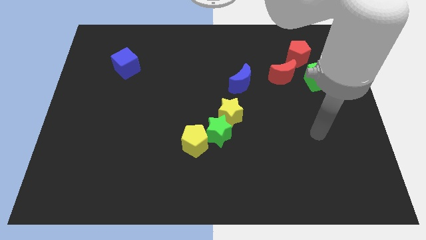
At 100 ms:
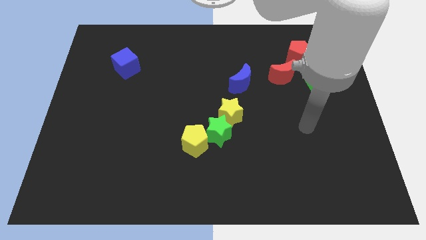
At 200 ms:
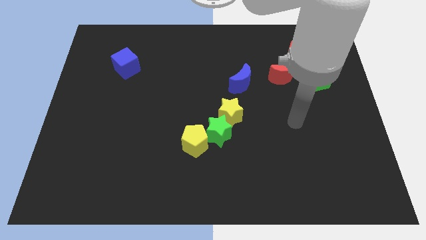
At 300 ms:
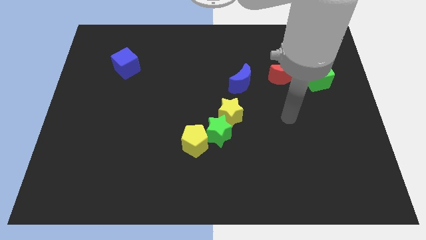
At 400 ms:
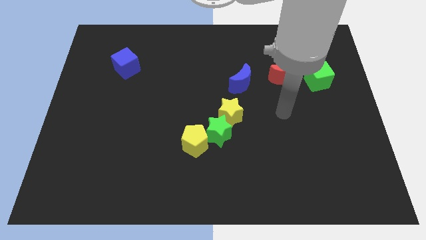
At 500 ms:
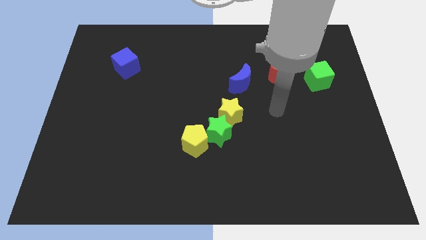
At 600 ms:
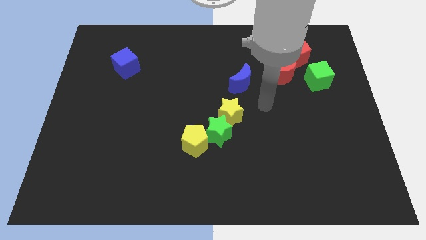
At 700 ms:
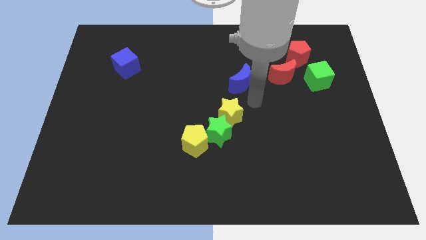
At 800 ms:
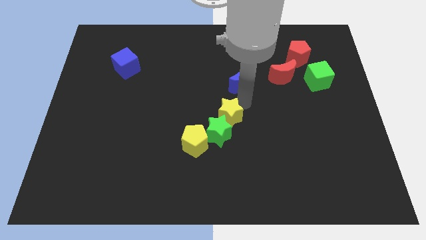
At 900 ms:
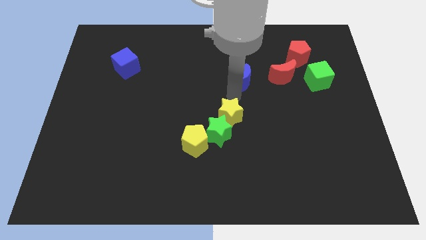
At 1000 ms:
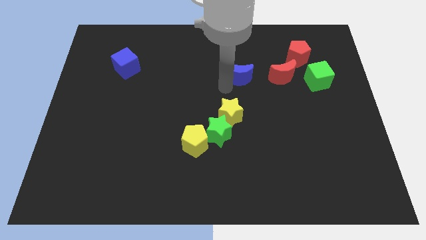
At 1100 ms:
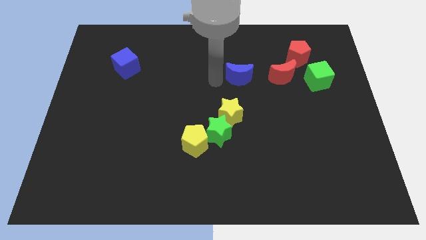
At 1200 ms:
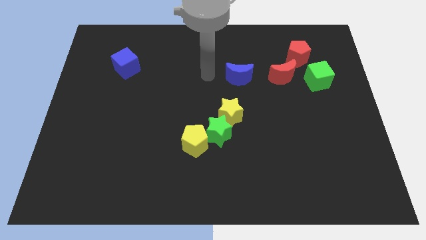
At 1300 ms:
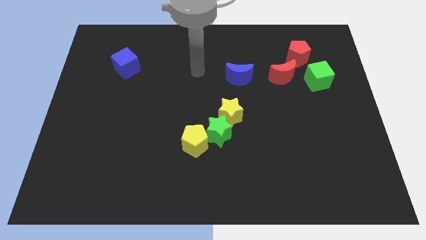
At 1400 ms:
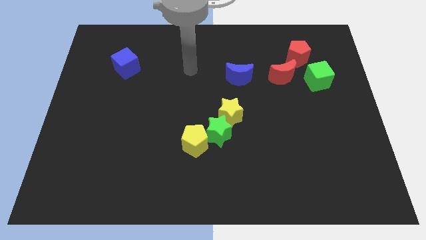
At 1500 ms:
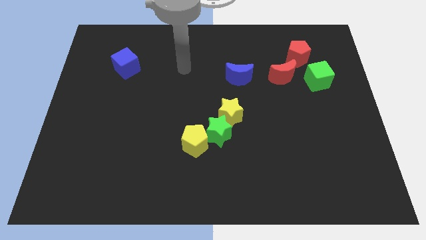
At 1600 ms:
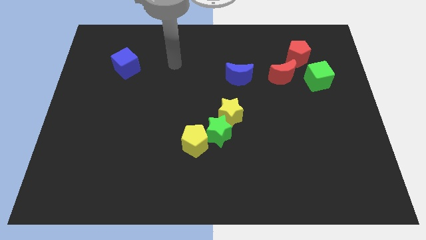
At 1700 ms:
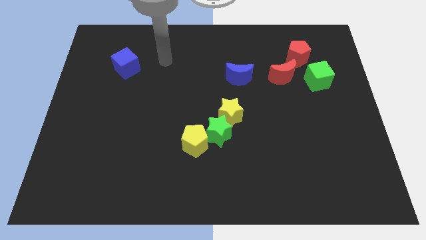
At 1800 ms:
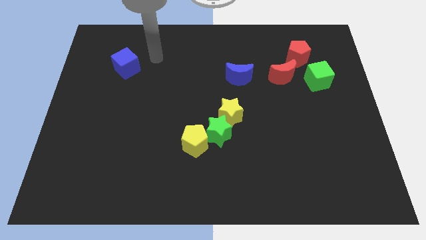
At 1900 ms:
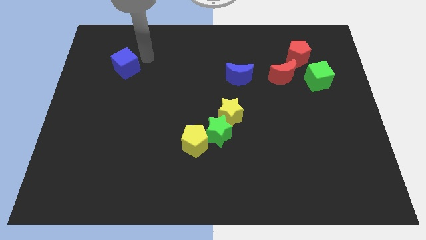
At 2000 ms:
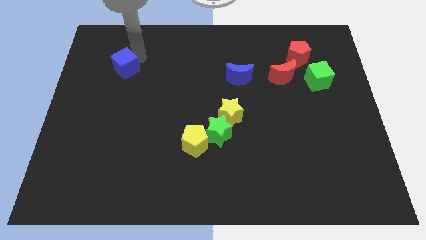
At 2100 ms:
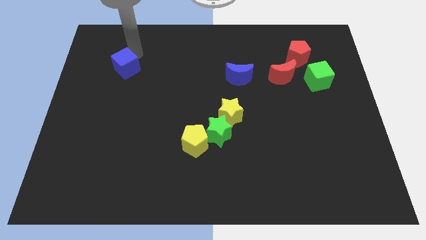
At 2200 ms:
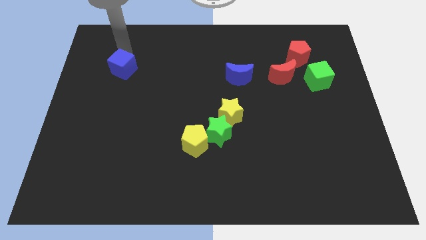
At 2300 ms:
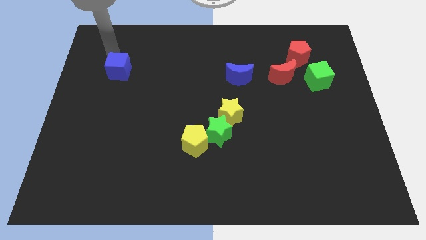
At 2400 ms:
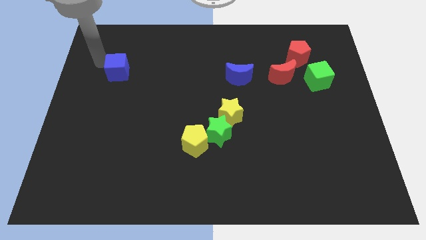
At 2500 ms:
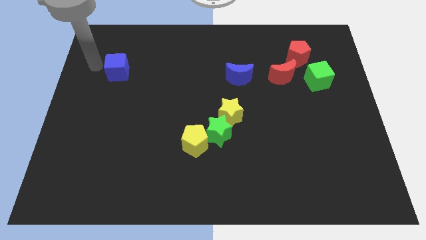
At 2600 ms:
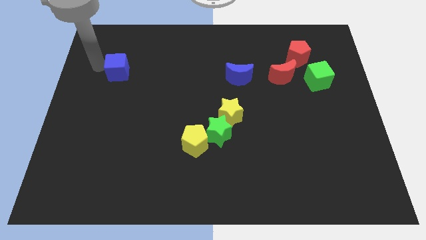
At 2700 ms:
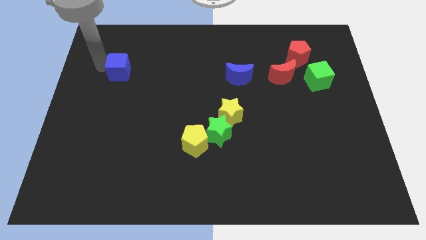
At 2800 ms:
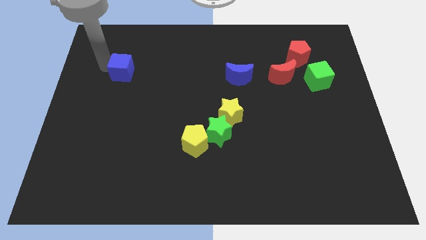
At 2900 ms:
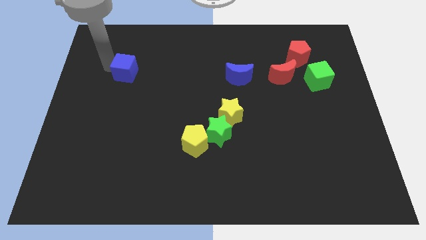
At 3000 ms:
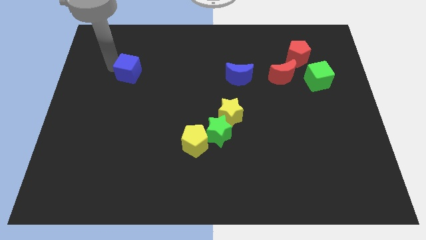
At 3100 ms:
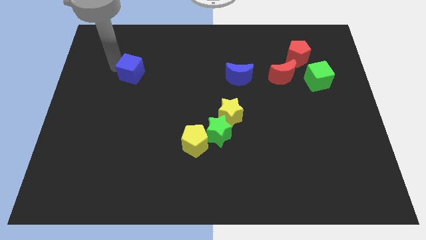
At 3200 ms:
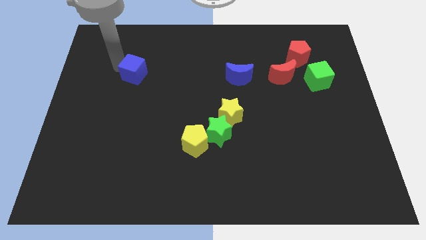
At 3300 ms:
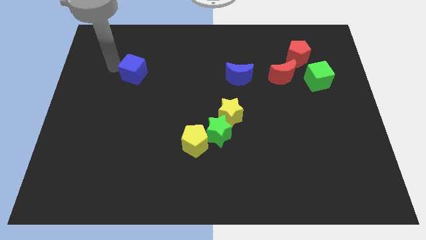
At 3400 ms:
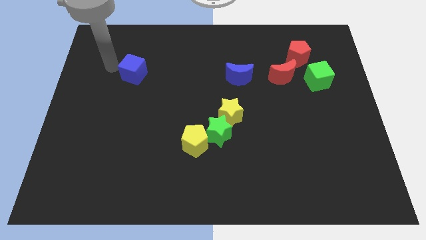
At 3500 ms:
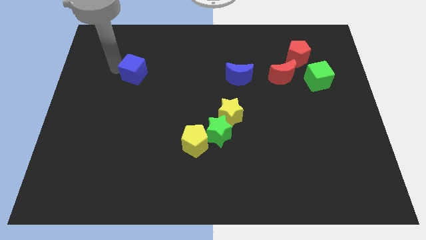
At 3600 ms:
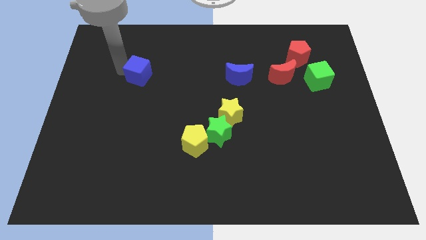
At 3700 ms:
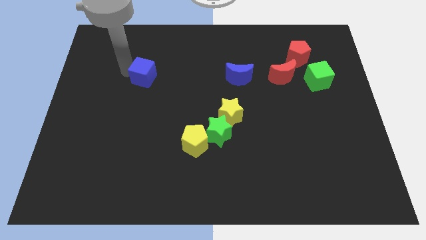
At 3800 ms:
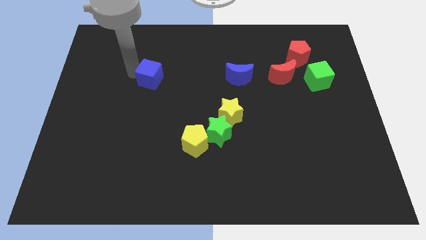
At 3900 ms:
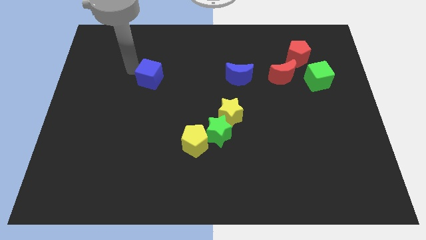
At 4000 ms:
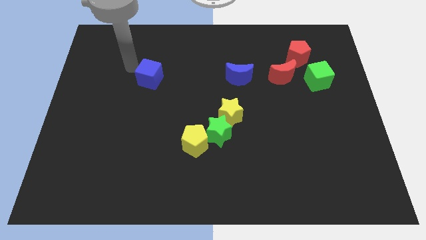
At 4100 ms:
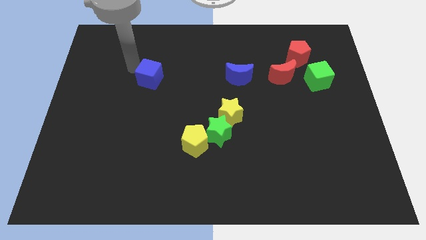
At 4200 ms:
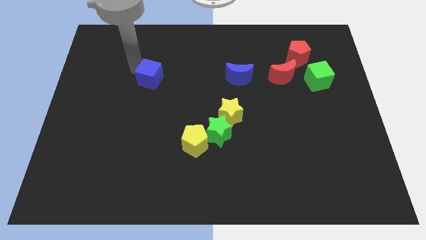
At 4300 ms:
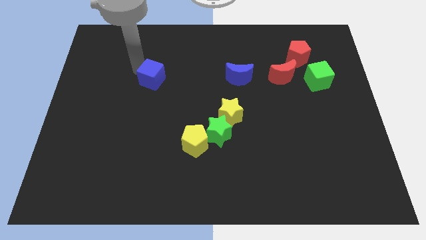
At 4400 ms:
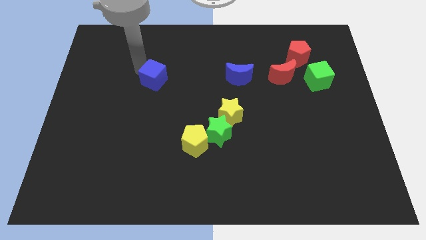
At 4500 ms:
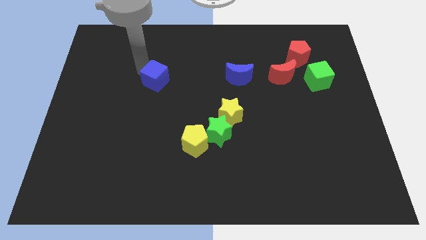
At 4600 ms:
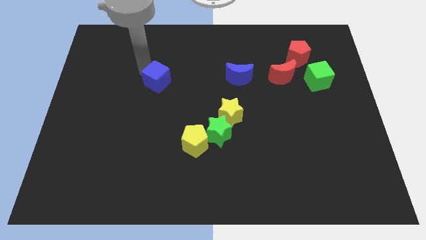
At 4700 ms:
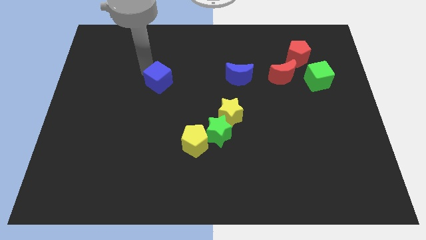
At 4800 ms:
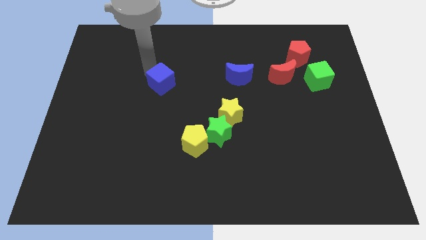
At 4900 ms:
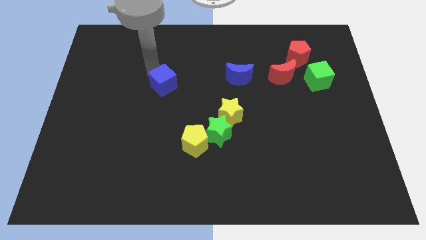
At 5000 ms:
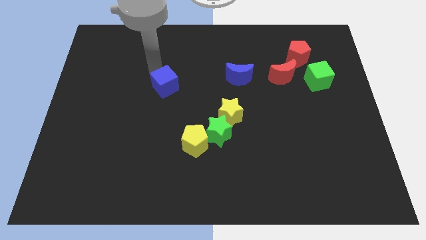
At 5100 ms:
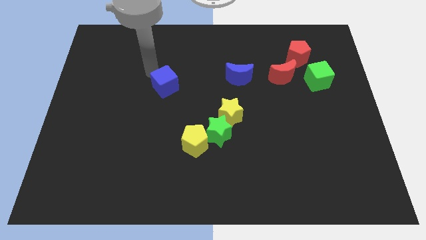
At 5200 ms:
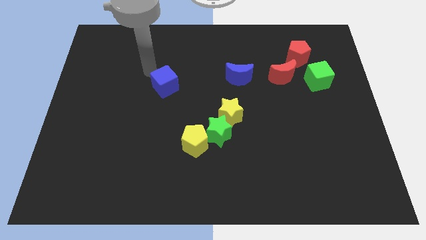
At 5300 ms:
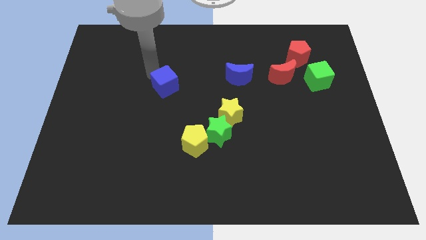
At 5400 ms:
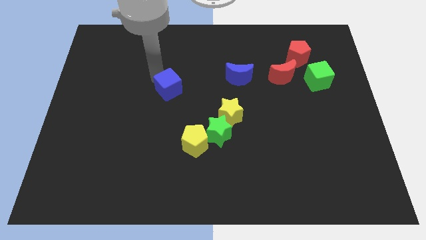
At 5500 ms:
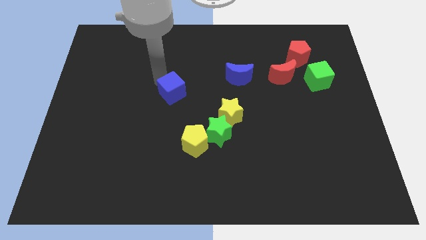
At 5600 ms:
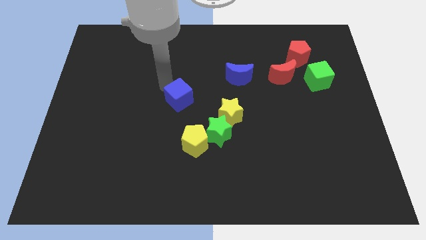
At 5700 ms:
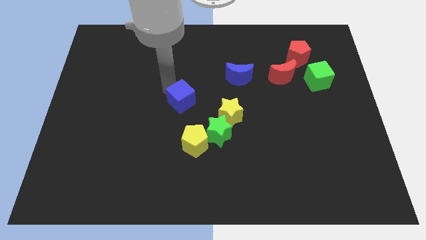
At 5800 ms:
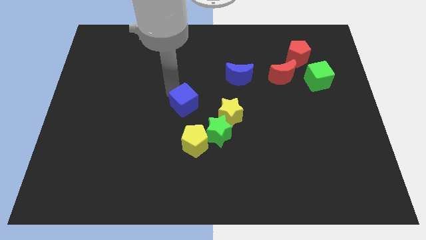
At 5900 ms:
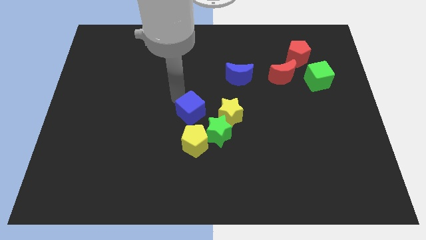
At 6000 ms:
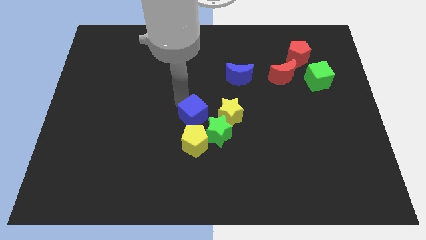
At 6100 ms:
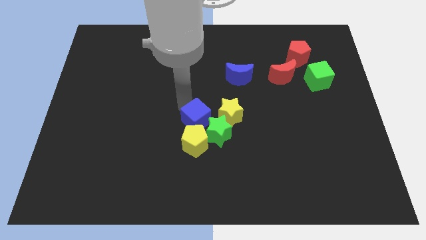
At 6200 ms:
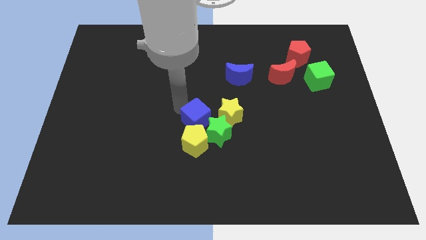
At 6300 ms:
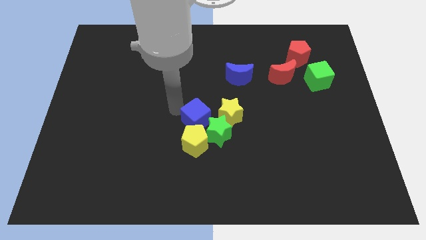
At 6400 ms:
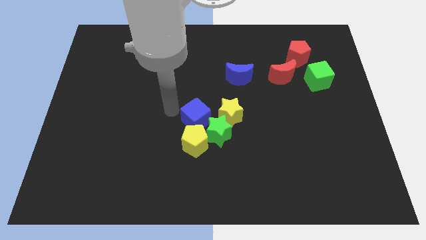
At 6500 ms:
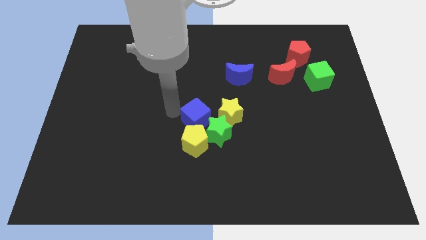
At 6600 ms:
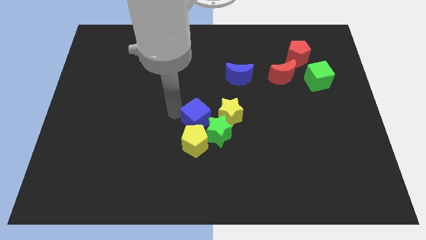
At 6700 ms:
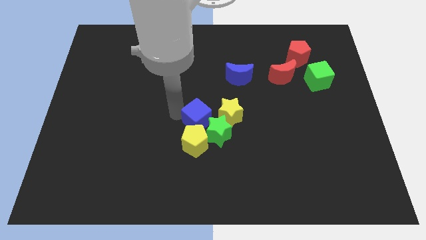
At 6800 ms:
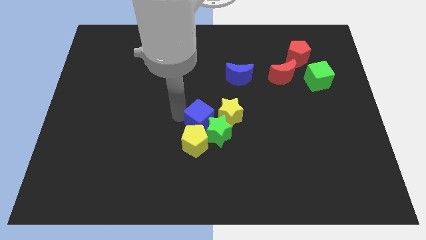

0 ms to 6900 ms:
put the blue cube close to the green star

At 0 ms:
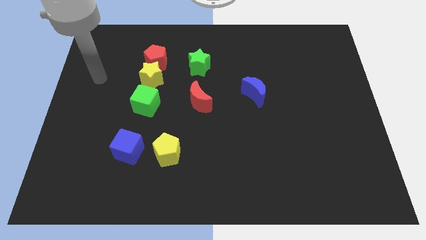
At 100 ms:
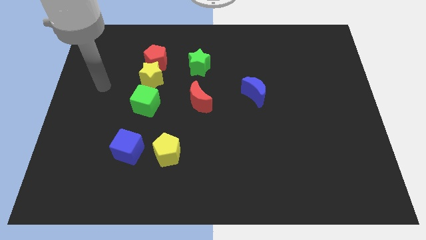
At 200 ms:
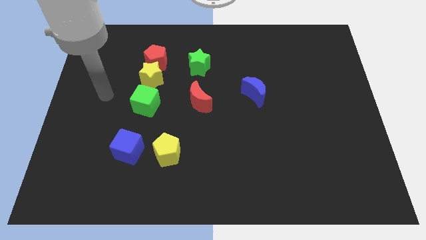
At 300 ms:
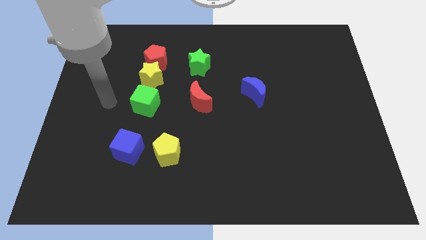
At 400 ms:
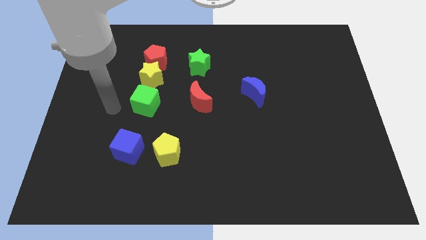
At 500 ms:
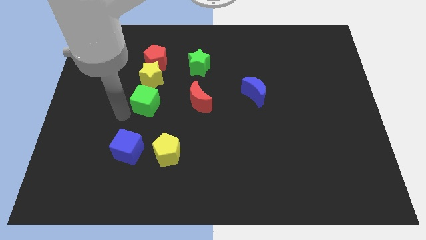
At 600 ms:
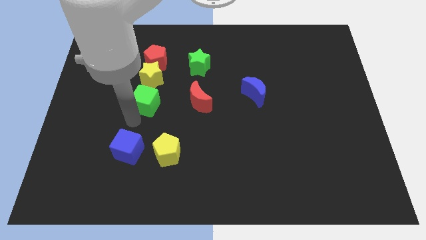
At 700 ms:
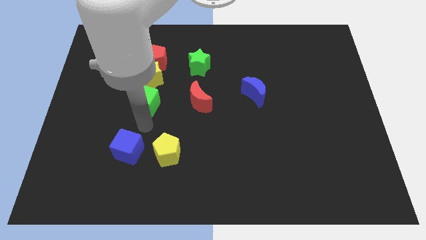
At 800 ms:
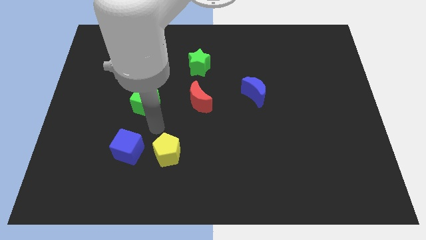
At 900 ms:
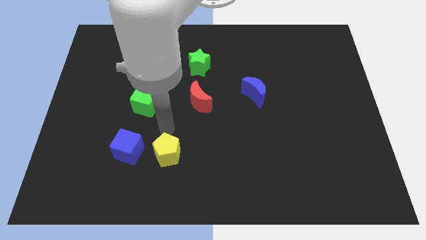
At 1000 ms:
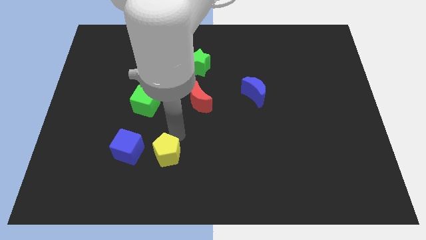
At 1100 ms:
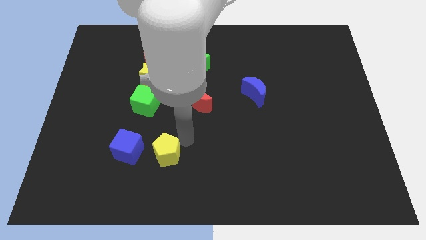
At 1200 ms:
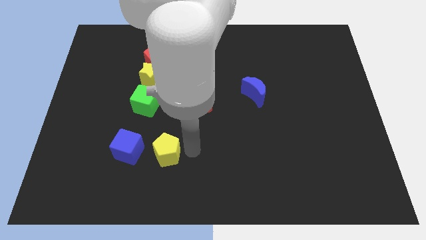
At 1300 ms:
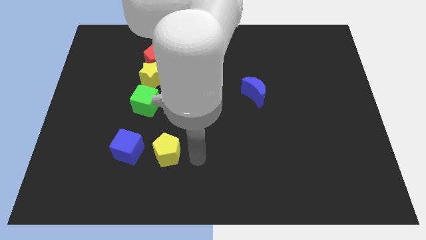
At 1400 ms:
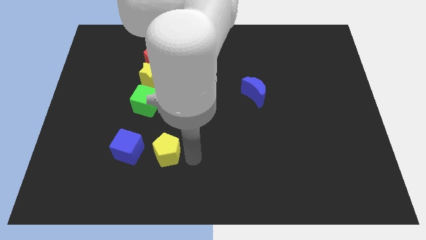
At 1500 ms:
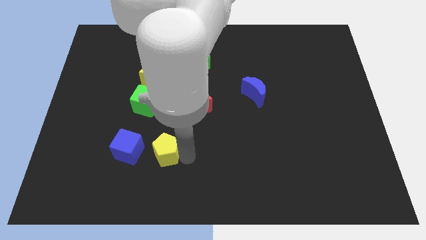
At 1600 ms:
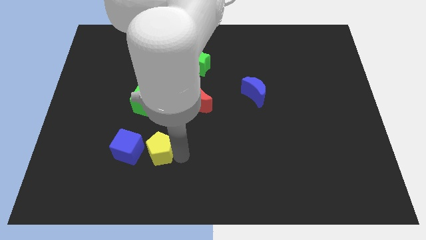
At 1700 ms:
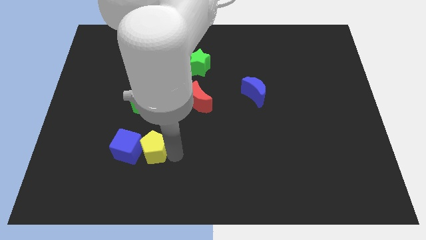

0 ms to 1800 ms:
move the yellow pentagon next to the blue cube
